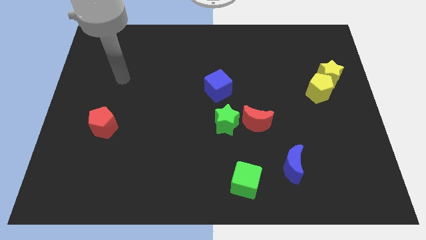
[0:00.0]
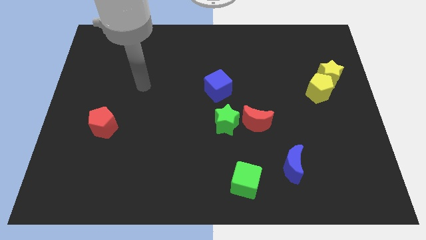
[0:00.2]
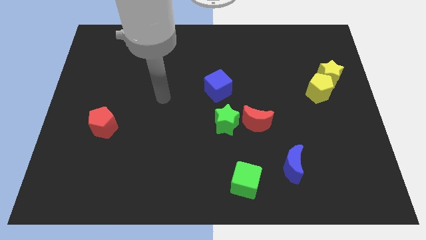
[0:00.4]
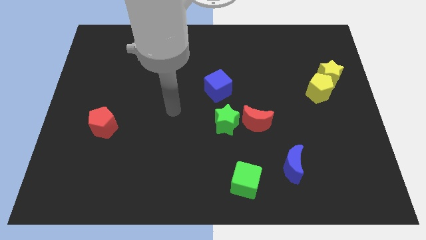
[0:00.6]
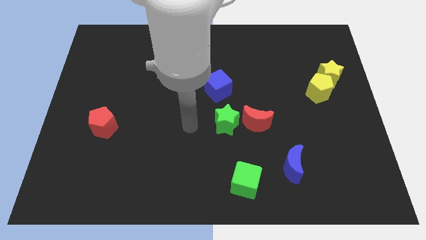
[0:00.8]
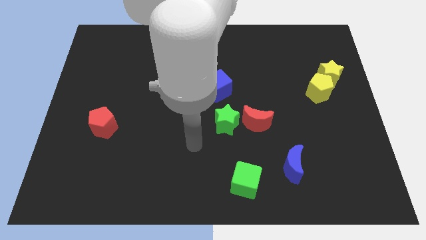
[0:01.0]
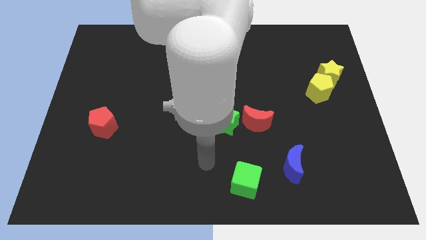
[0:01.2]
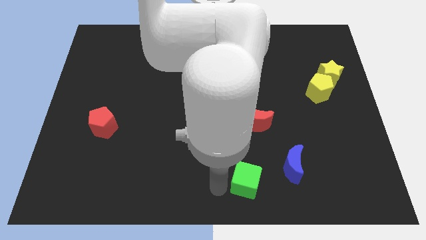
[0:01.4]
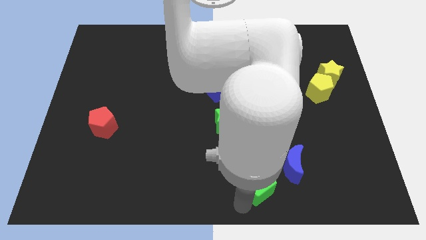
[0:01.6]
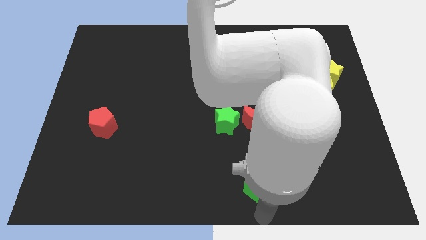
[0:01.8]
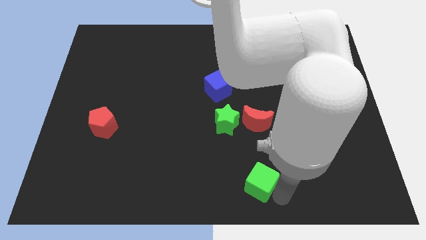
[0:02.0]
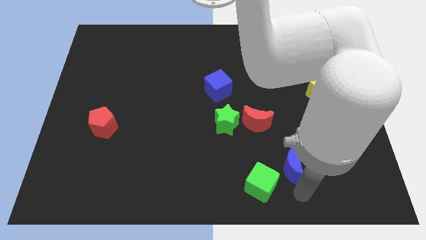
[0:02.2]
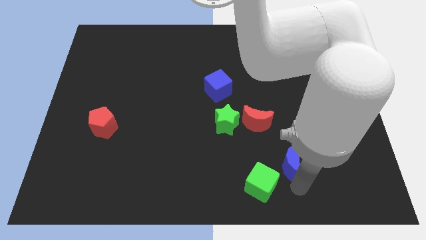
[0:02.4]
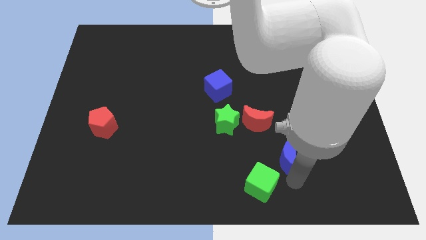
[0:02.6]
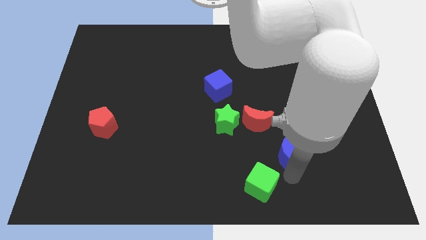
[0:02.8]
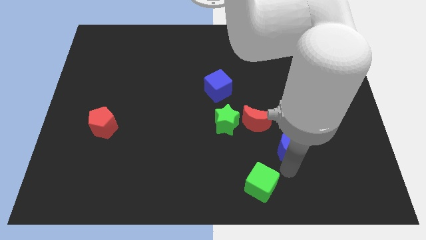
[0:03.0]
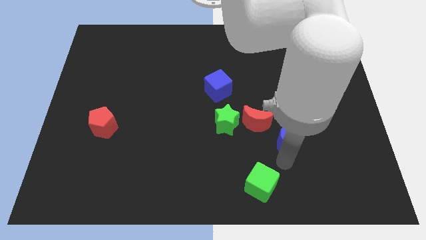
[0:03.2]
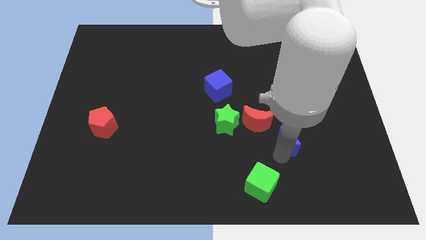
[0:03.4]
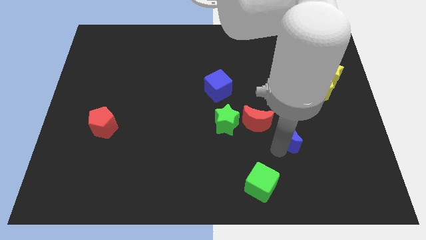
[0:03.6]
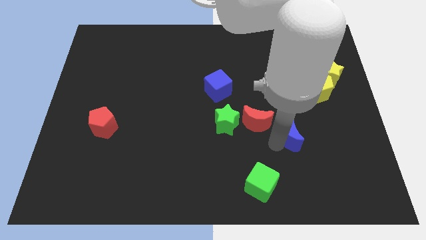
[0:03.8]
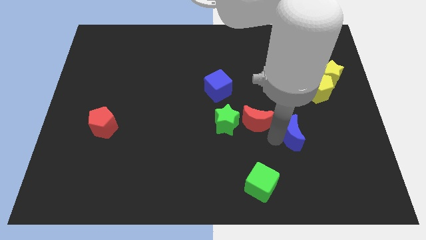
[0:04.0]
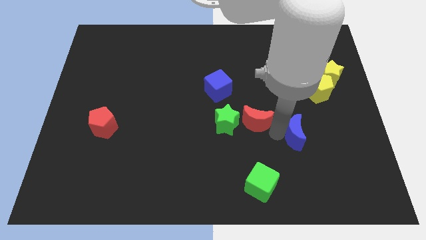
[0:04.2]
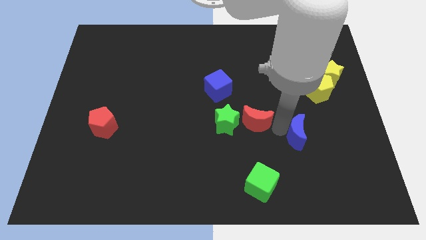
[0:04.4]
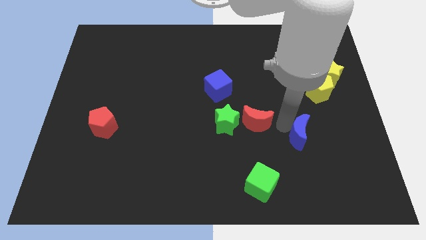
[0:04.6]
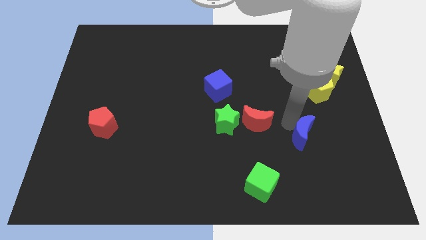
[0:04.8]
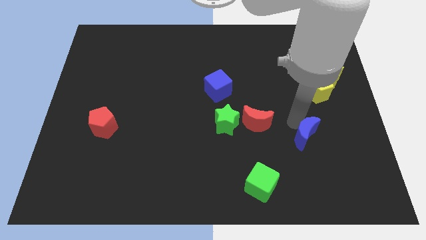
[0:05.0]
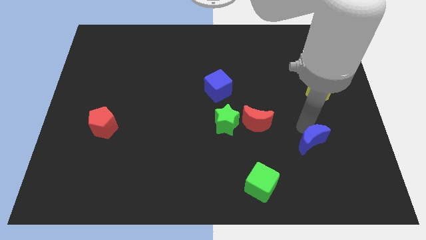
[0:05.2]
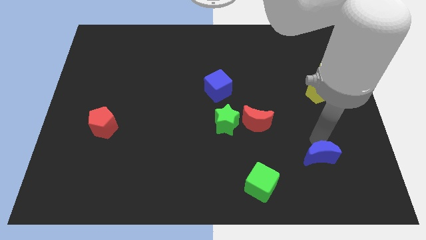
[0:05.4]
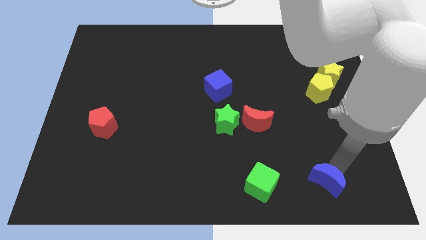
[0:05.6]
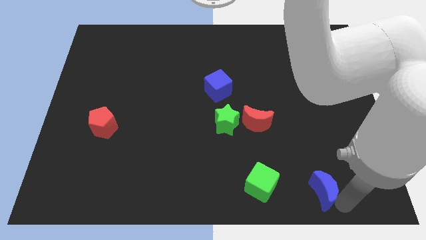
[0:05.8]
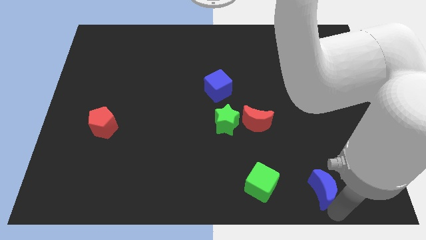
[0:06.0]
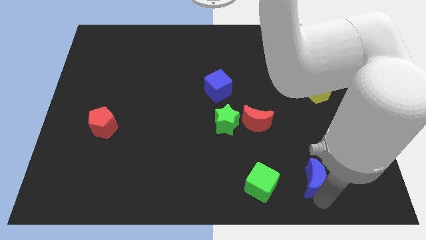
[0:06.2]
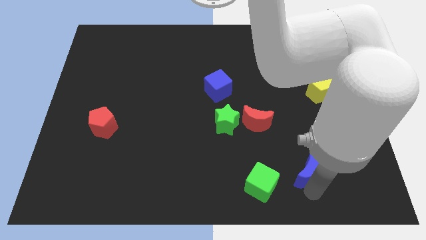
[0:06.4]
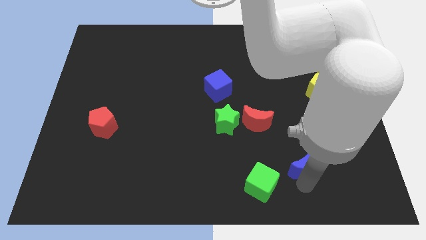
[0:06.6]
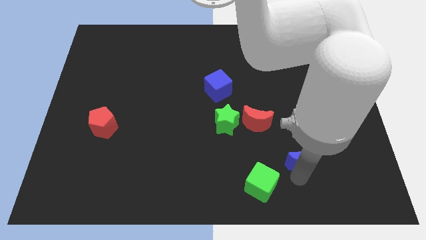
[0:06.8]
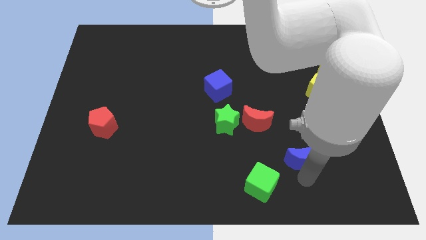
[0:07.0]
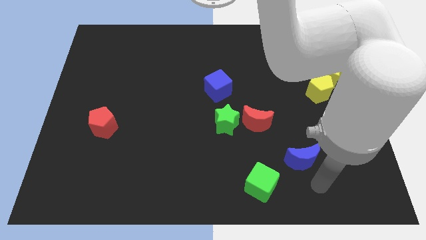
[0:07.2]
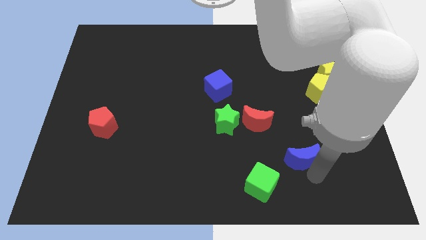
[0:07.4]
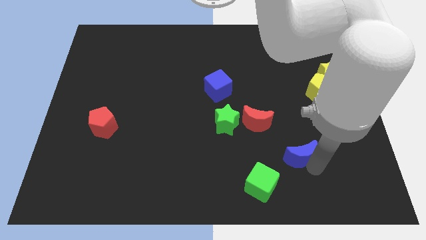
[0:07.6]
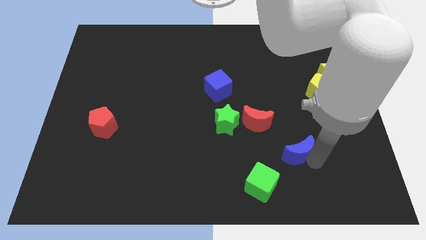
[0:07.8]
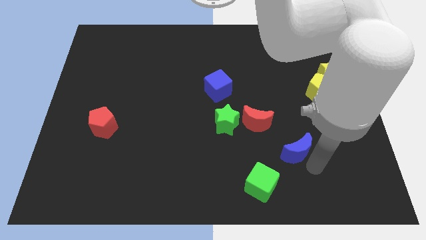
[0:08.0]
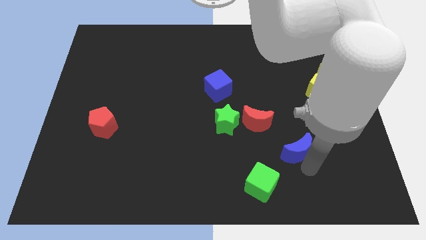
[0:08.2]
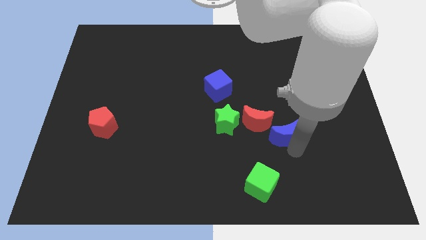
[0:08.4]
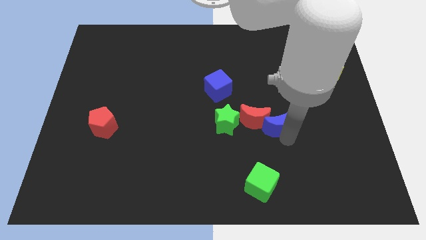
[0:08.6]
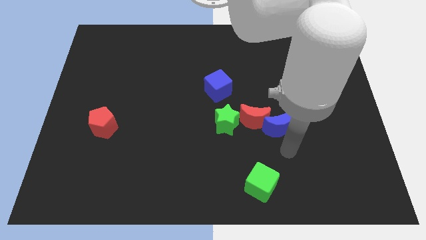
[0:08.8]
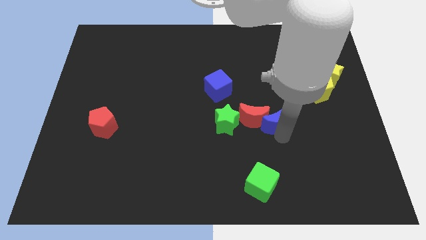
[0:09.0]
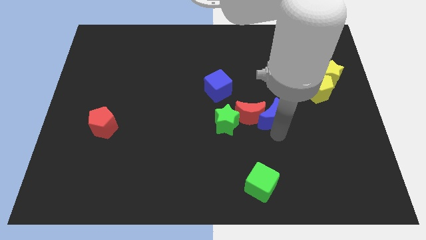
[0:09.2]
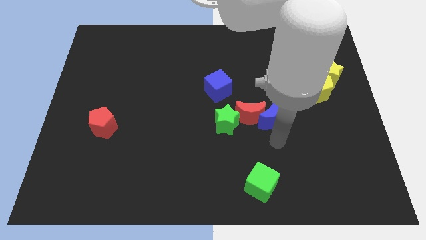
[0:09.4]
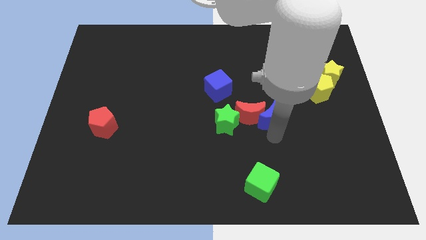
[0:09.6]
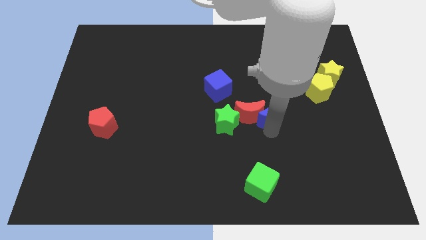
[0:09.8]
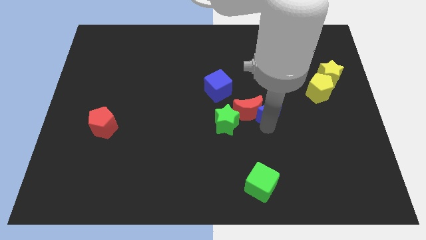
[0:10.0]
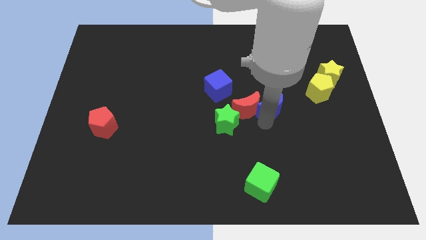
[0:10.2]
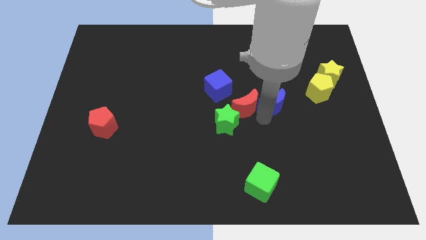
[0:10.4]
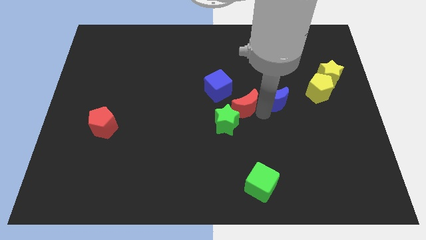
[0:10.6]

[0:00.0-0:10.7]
slide the blue moon just right of the blue cube

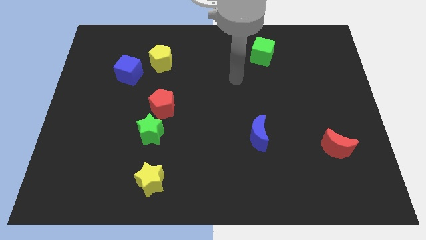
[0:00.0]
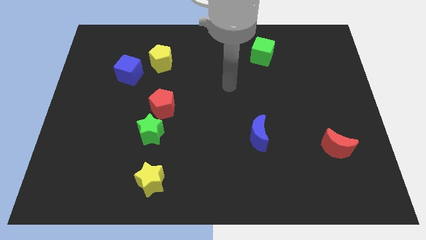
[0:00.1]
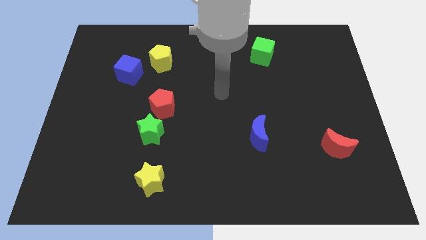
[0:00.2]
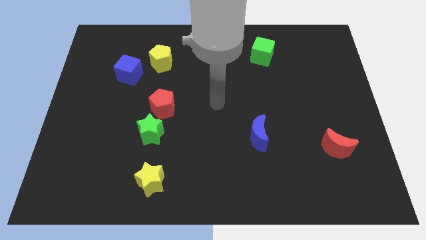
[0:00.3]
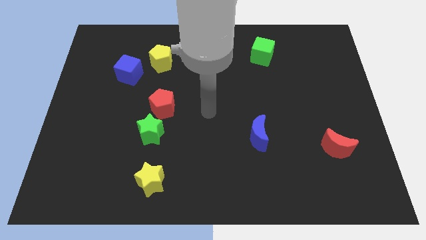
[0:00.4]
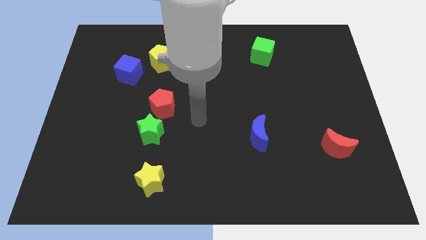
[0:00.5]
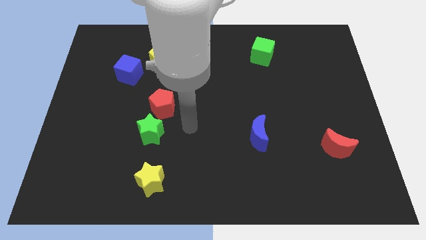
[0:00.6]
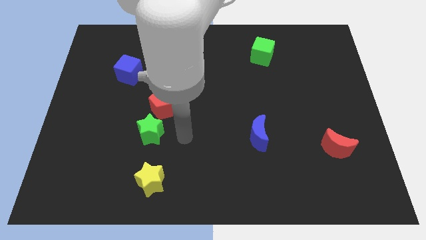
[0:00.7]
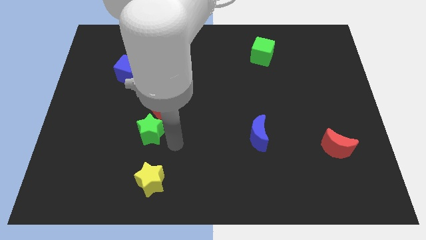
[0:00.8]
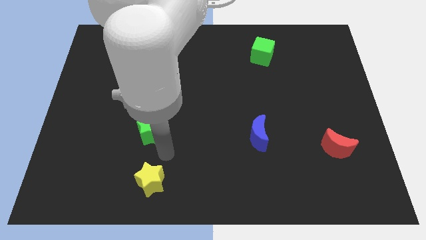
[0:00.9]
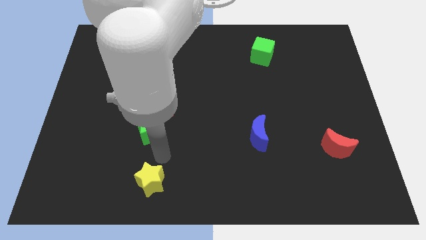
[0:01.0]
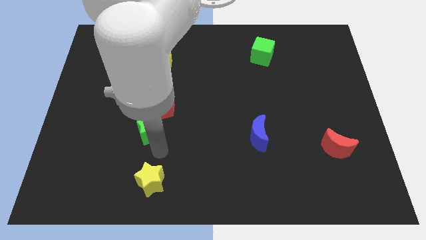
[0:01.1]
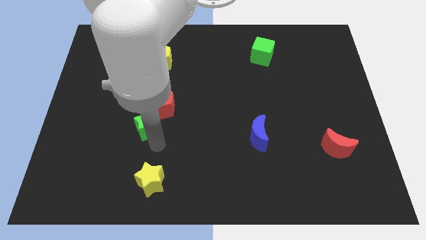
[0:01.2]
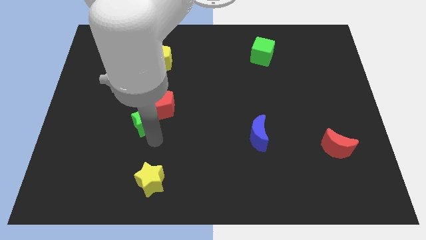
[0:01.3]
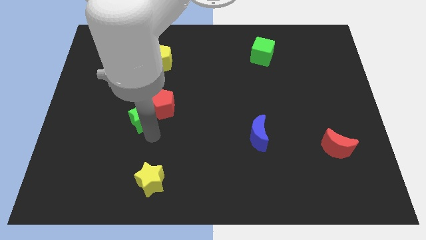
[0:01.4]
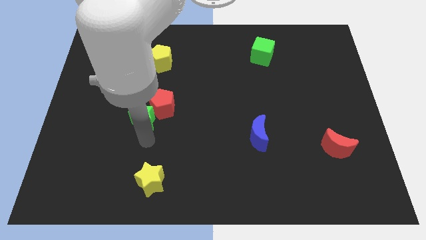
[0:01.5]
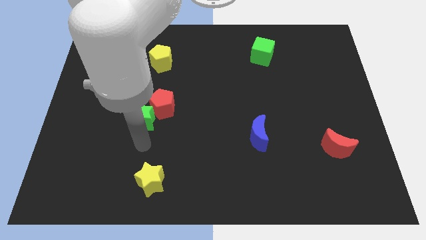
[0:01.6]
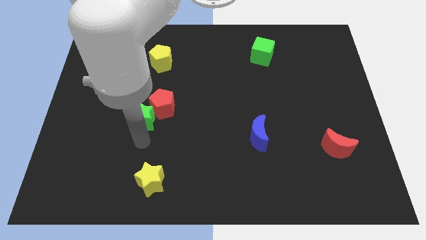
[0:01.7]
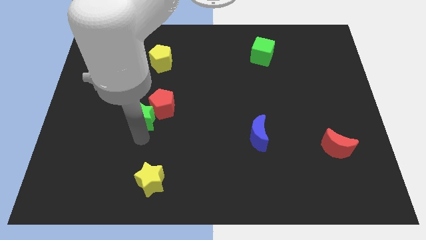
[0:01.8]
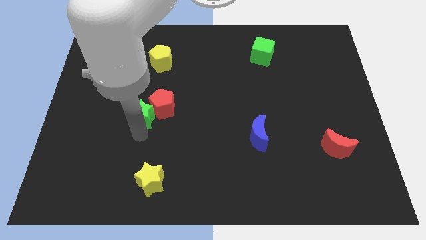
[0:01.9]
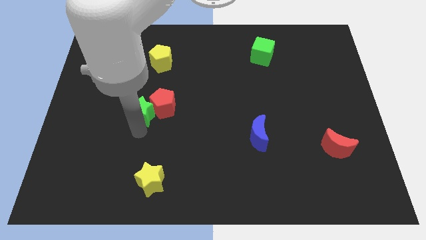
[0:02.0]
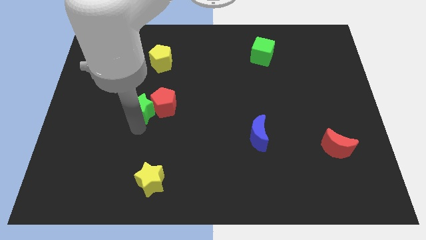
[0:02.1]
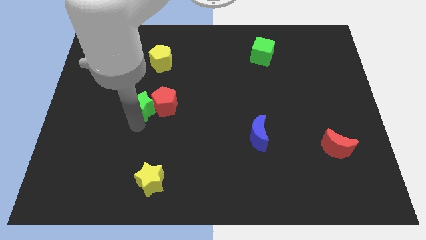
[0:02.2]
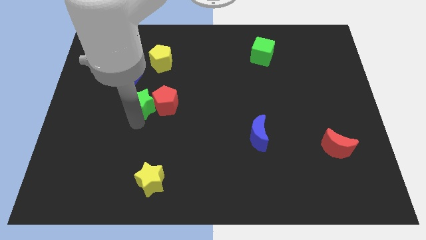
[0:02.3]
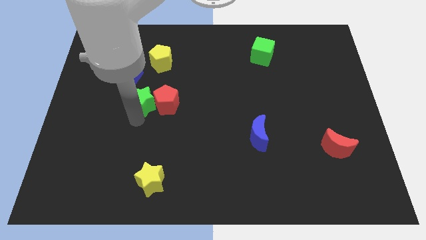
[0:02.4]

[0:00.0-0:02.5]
put the green star to the bottom right side of the blue cube
